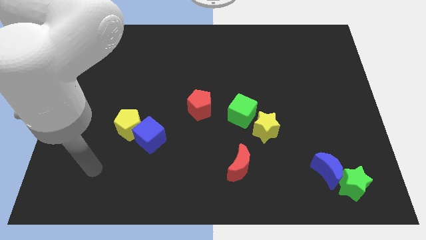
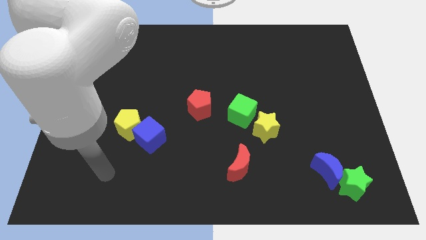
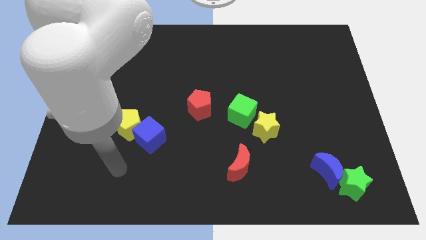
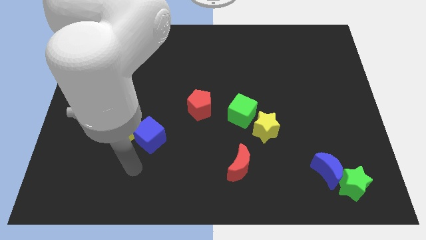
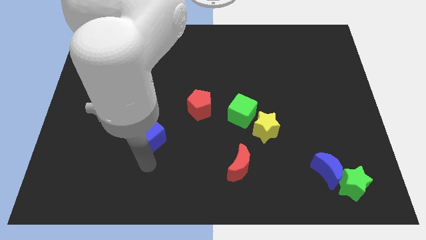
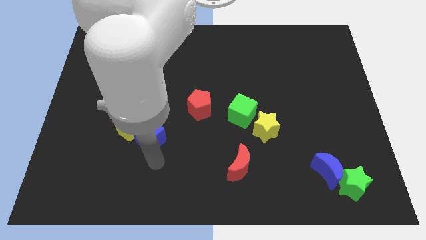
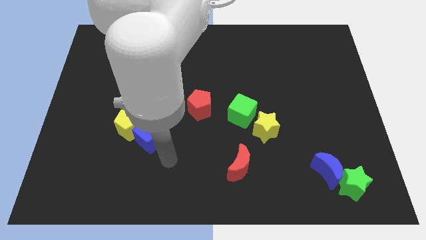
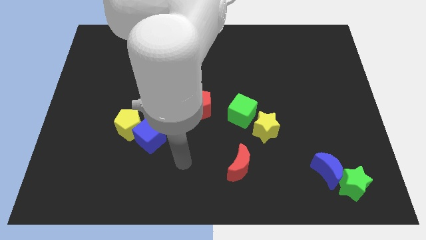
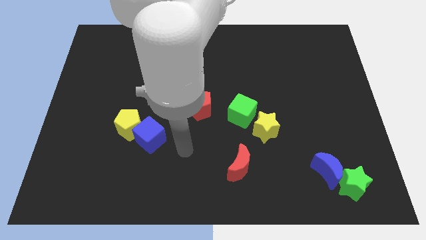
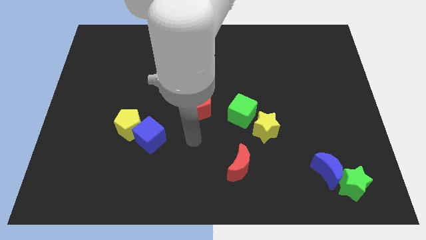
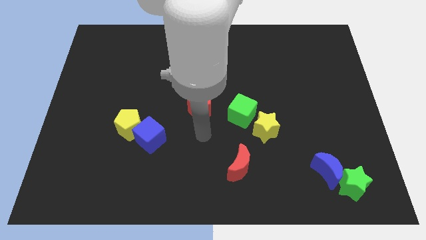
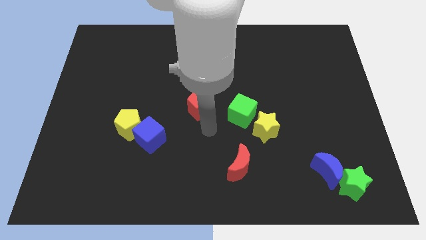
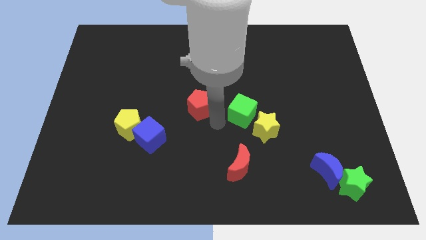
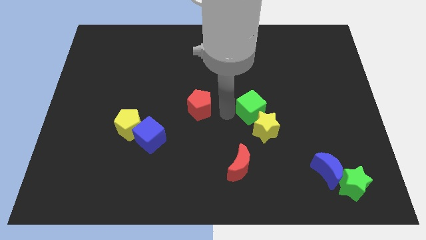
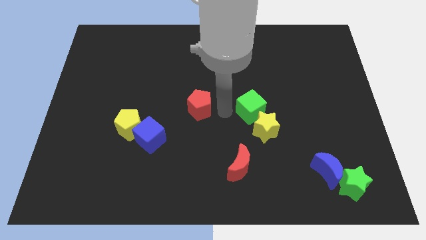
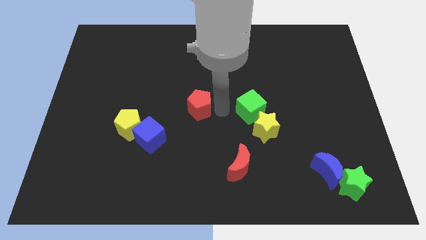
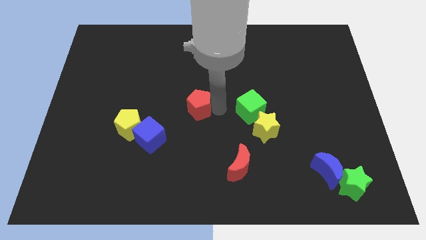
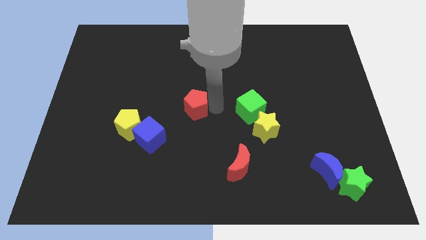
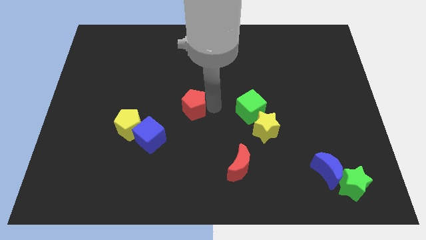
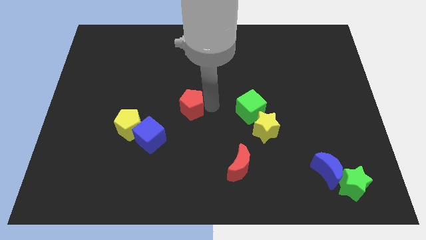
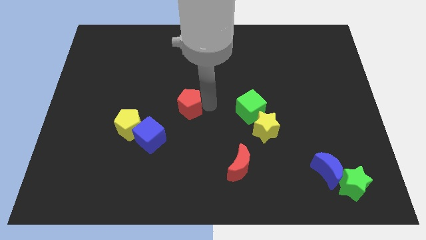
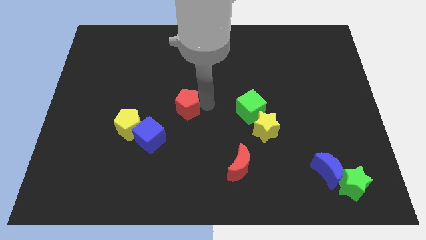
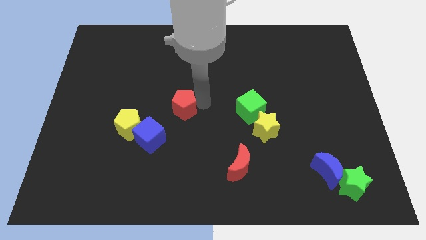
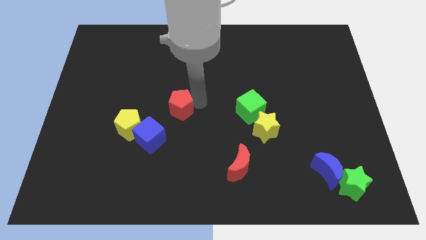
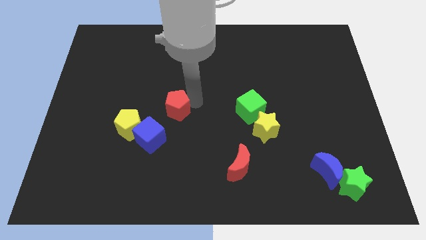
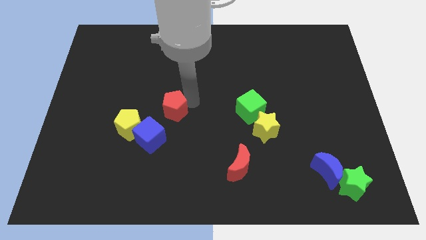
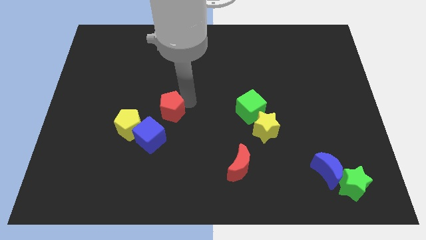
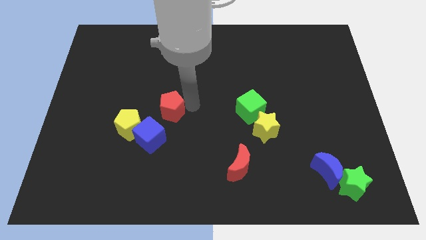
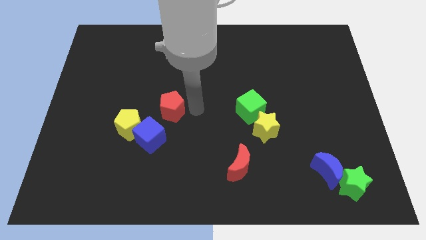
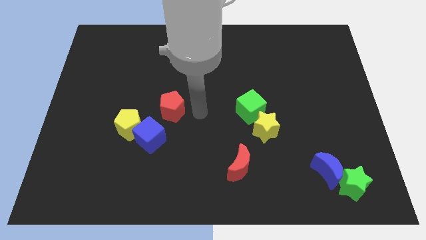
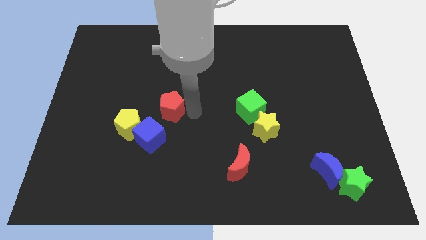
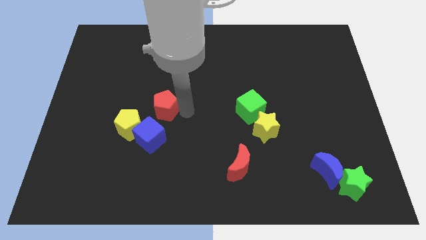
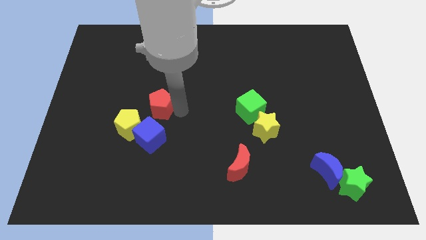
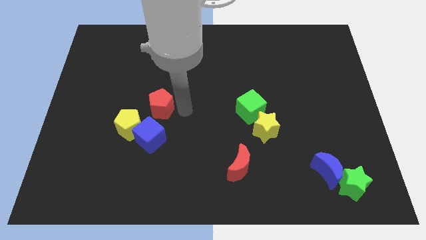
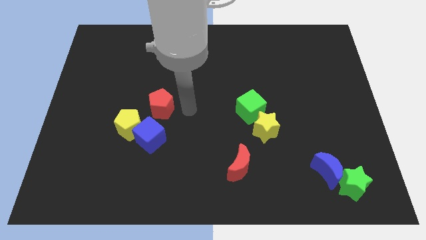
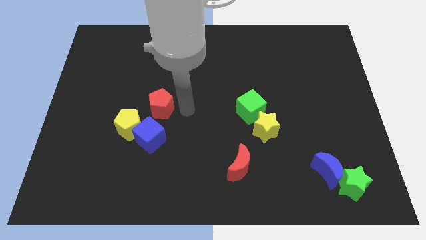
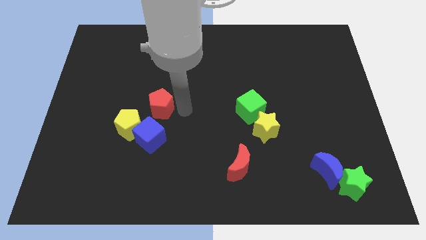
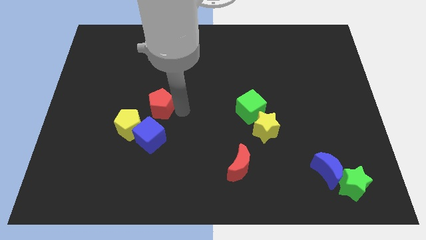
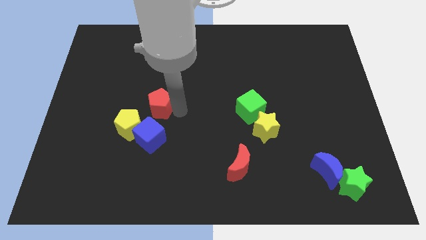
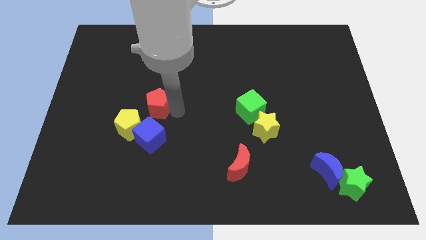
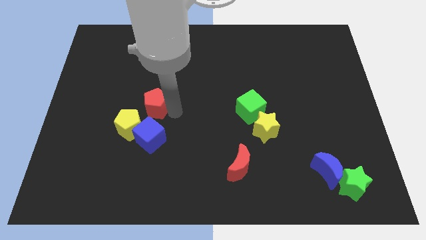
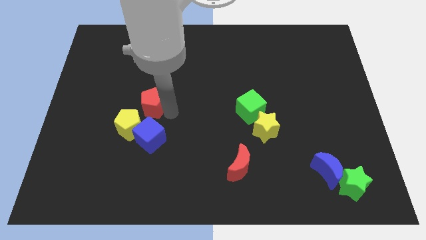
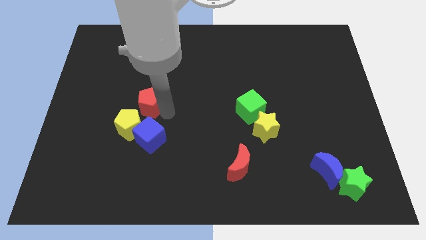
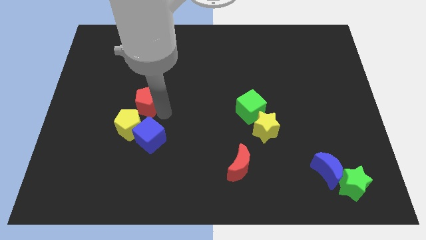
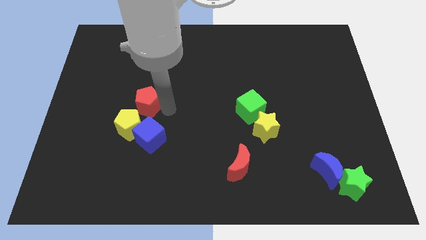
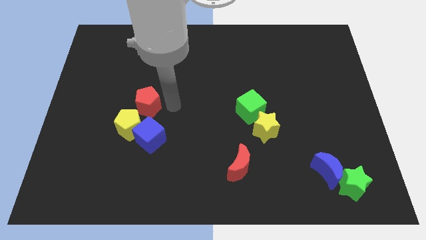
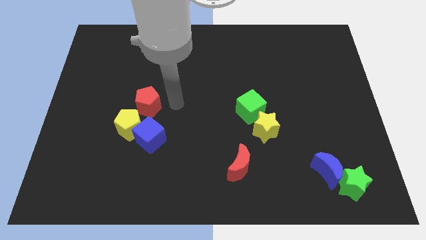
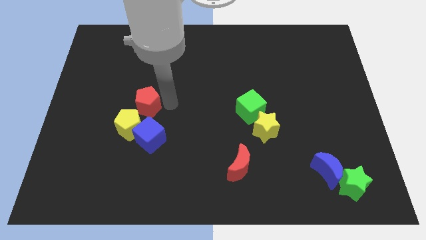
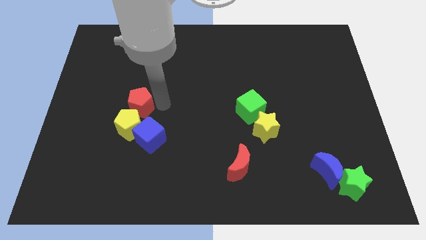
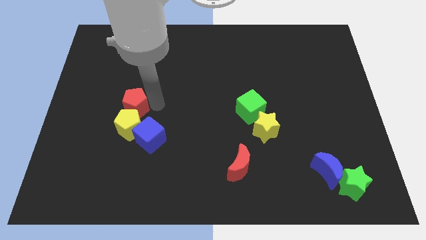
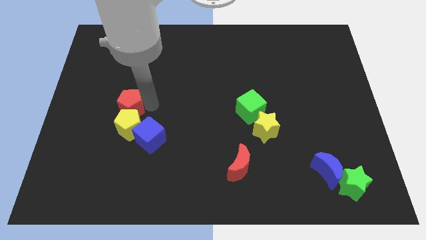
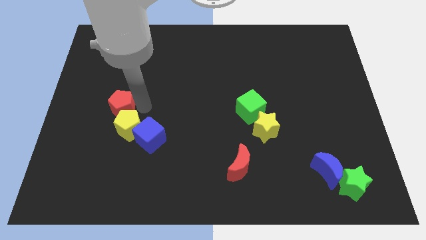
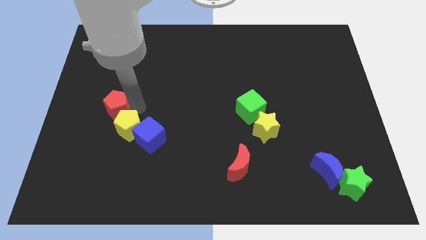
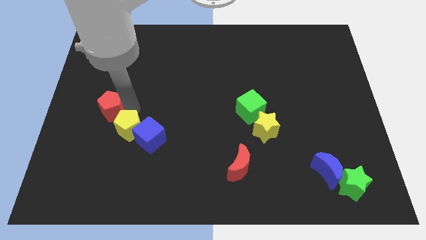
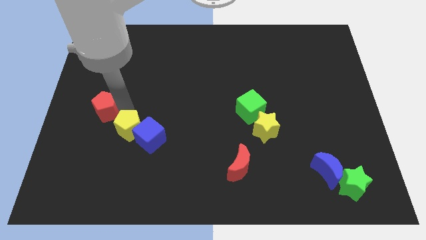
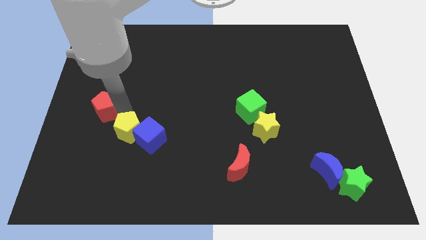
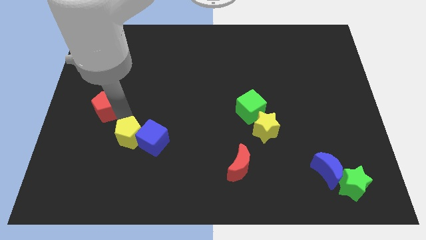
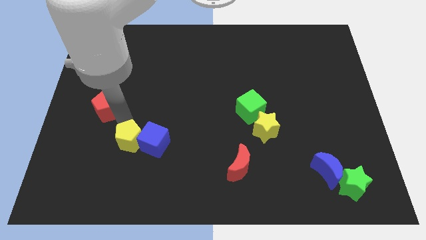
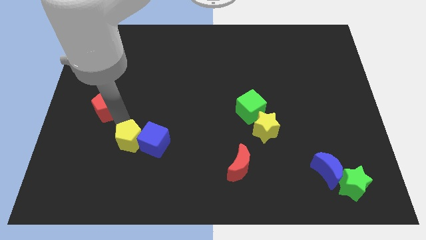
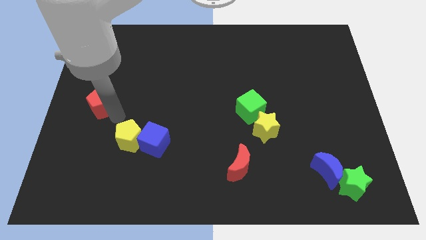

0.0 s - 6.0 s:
slide the red pentagon to the center left

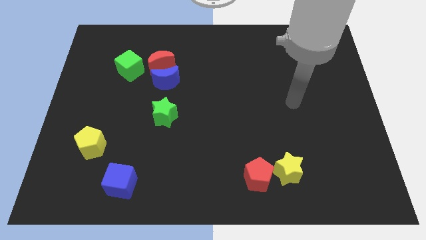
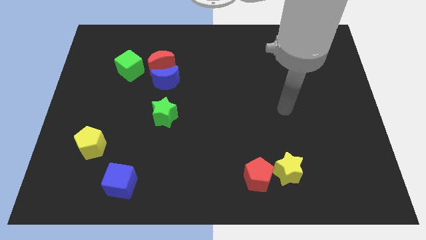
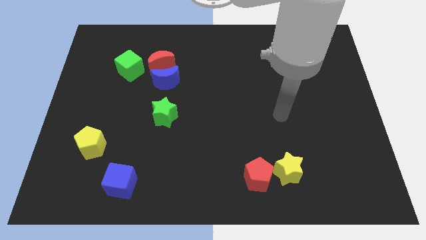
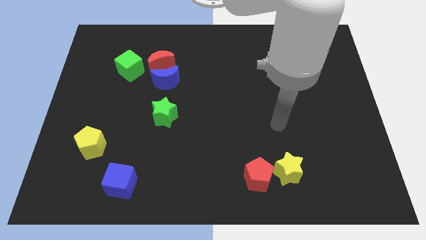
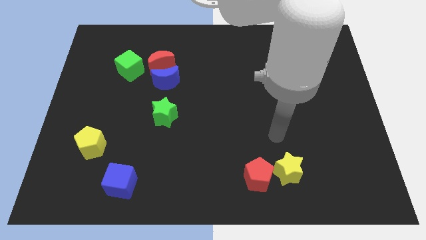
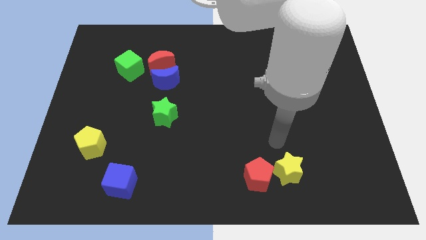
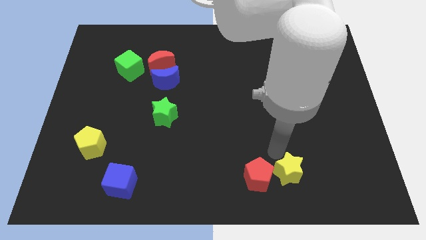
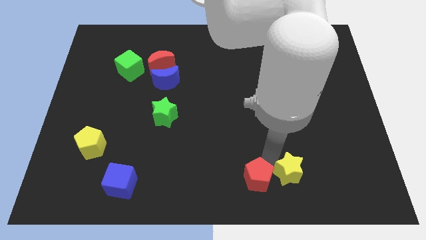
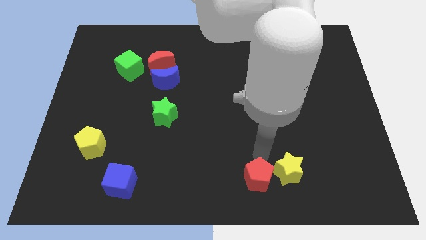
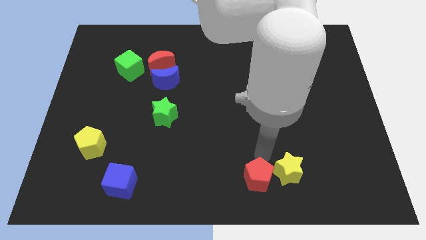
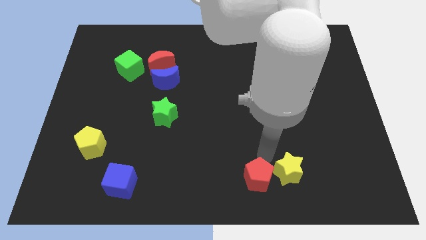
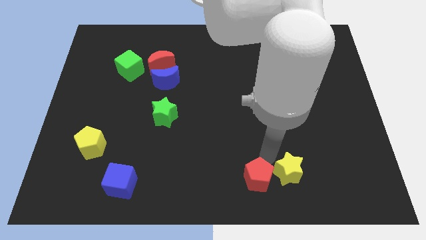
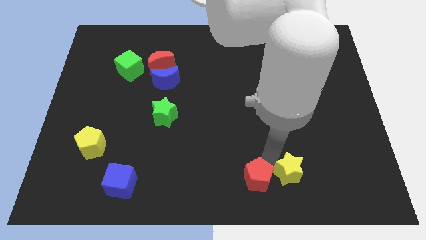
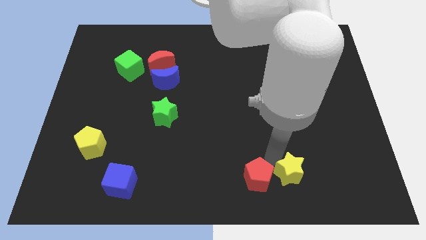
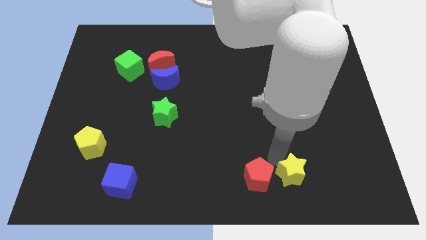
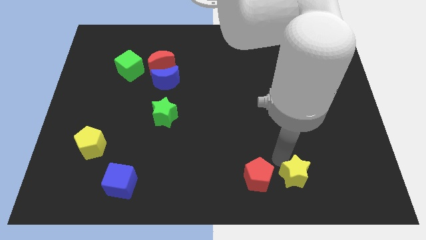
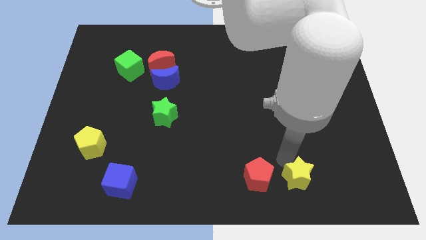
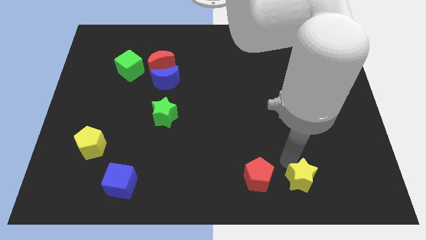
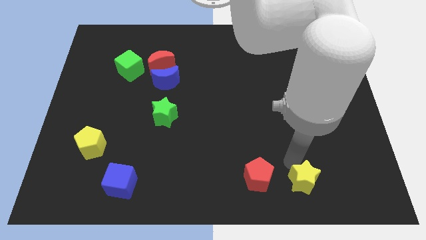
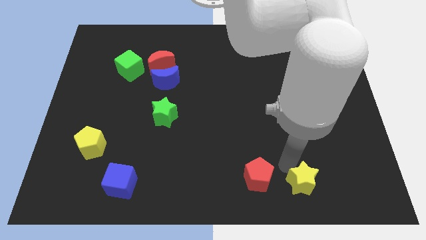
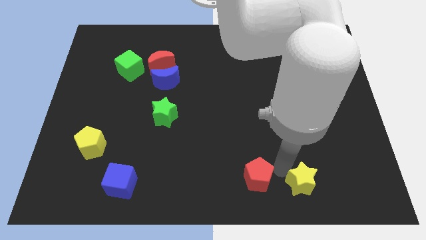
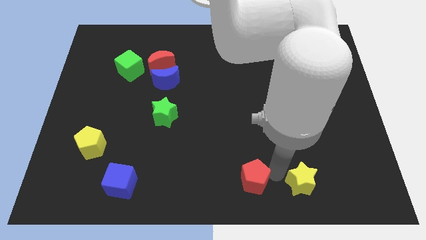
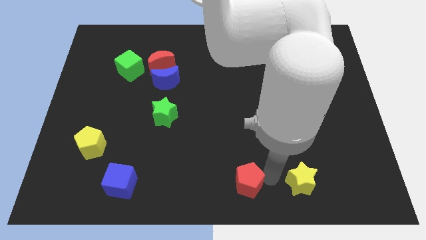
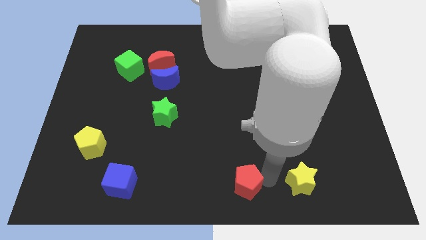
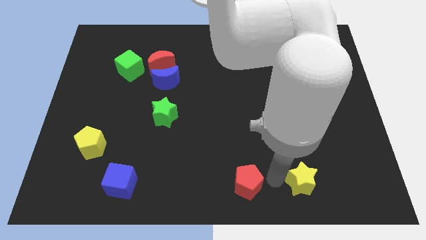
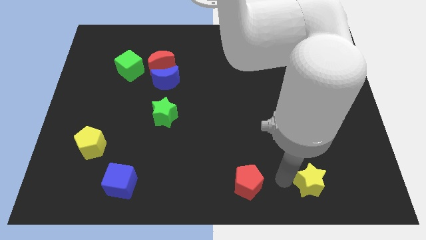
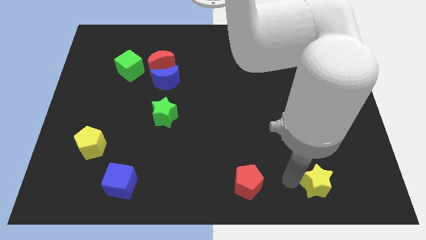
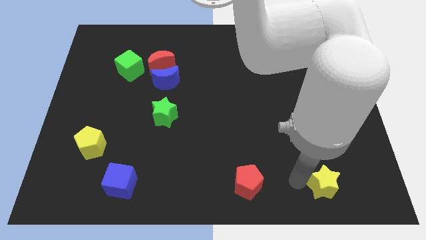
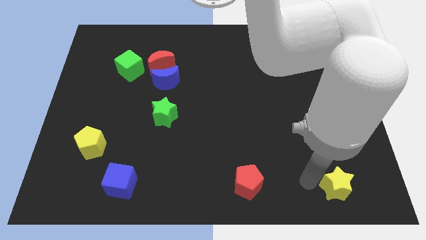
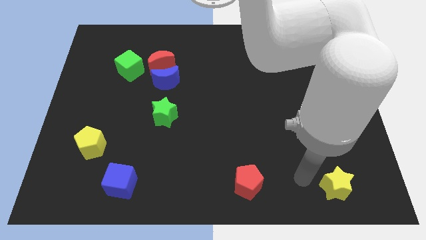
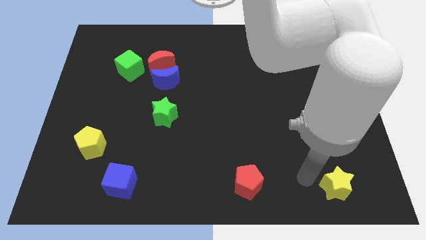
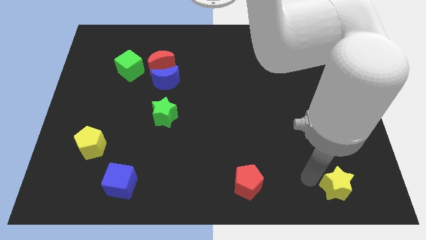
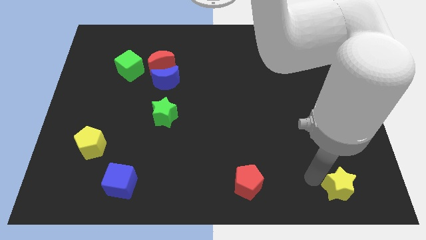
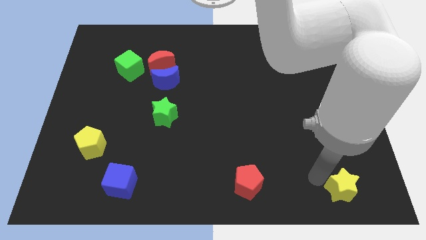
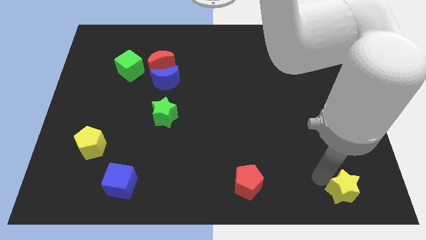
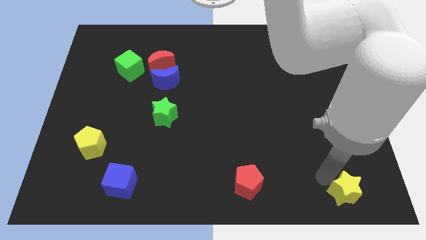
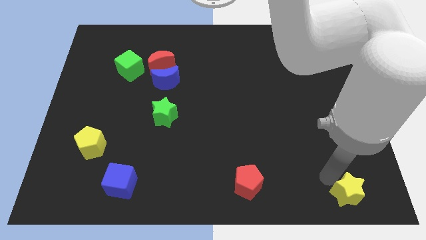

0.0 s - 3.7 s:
move the yellow star to the lower right corner
